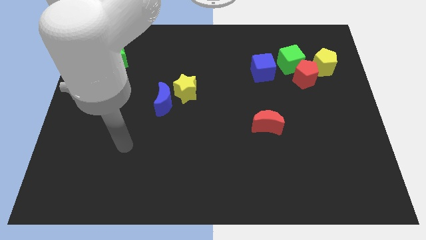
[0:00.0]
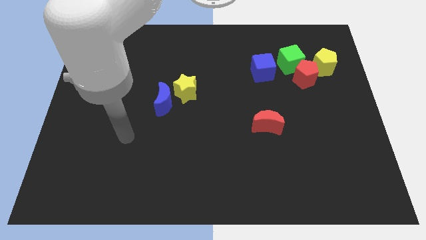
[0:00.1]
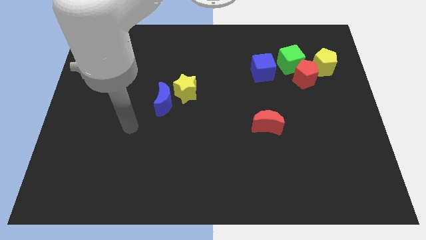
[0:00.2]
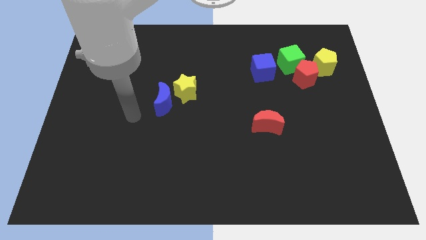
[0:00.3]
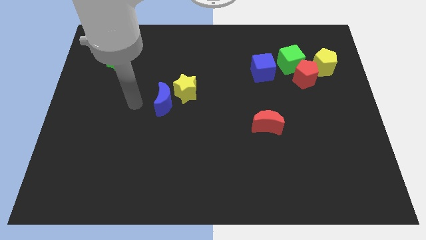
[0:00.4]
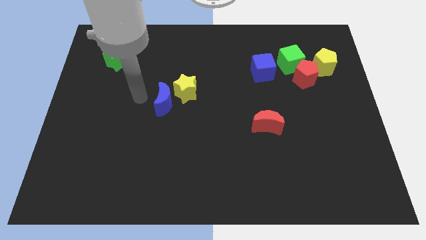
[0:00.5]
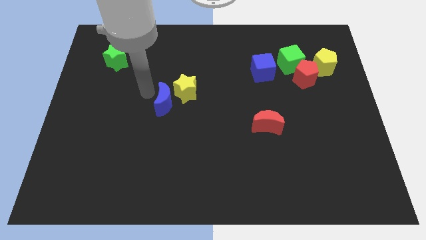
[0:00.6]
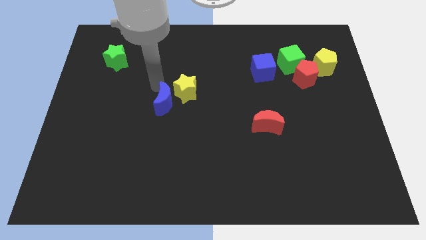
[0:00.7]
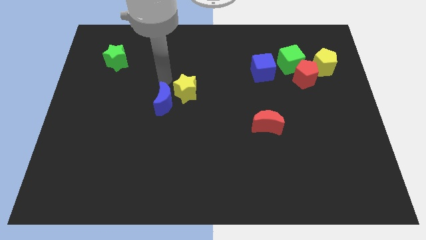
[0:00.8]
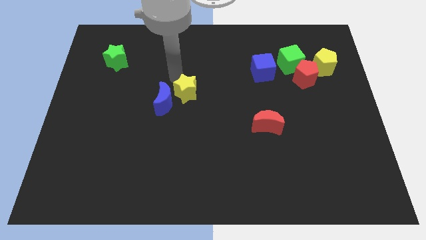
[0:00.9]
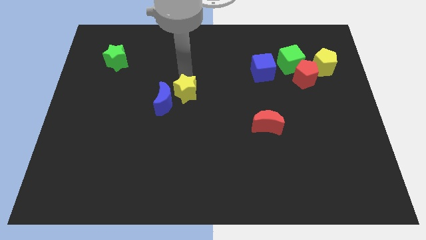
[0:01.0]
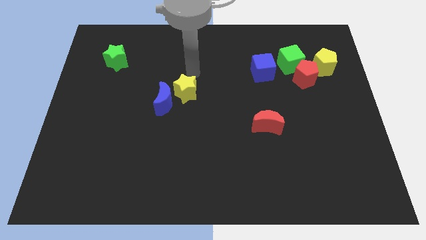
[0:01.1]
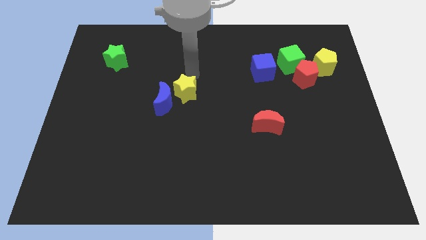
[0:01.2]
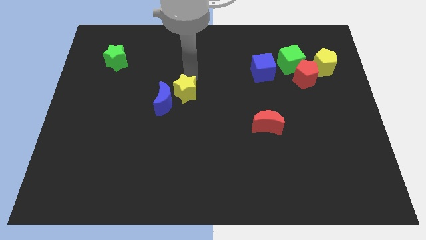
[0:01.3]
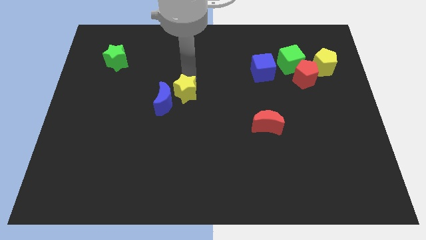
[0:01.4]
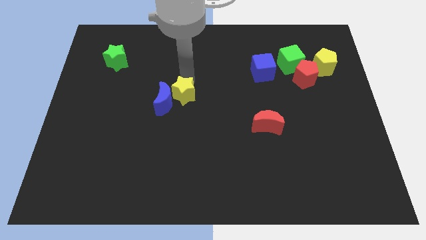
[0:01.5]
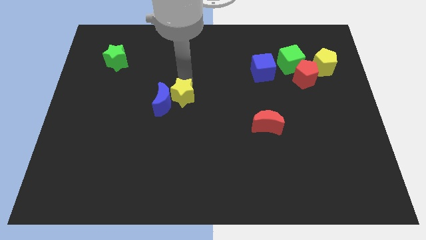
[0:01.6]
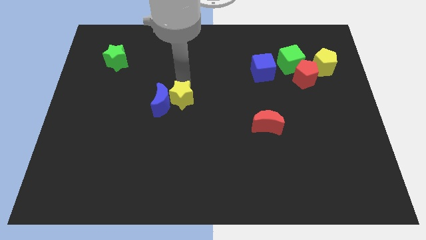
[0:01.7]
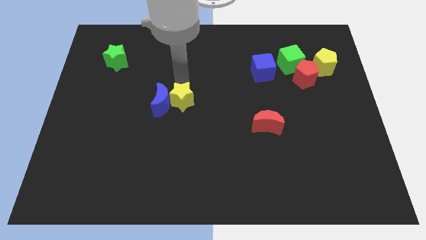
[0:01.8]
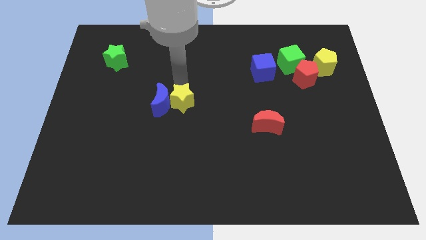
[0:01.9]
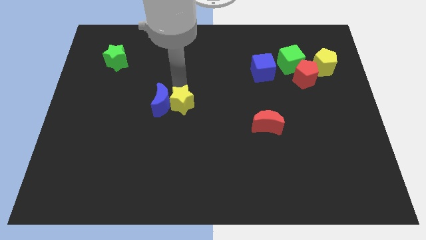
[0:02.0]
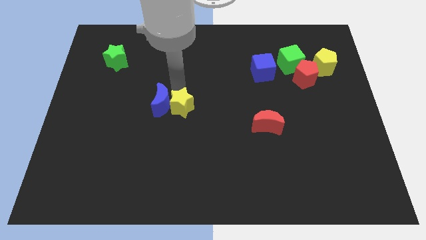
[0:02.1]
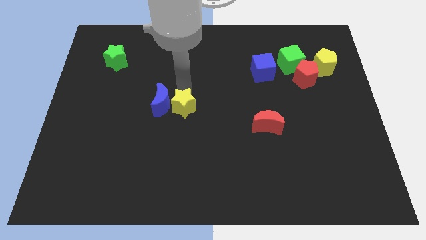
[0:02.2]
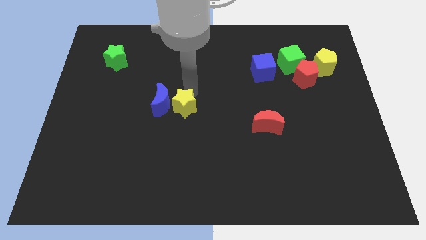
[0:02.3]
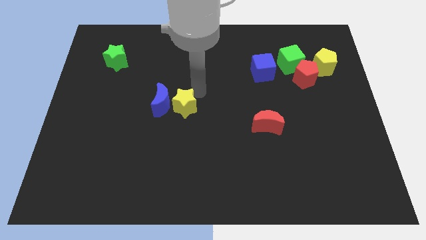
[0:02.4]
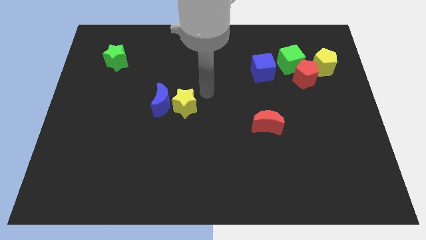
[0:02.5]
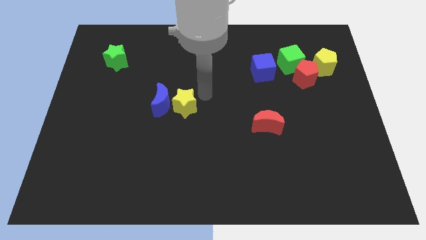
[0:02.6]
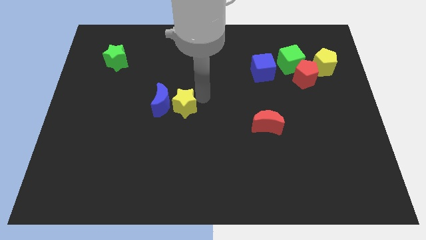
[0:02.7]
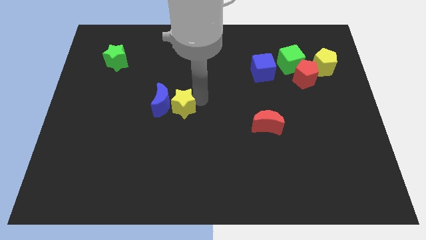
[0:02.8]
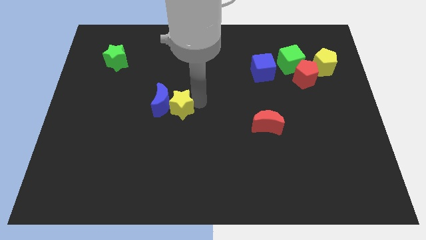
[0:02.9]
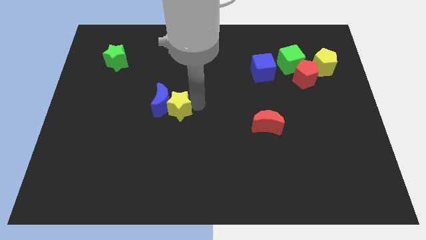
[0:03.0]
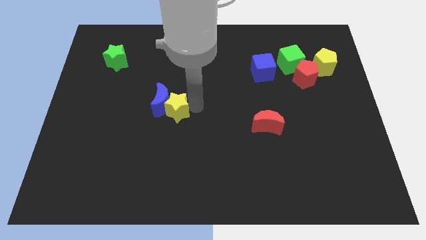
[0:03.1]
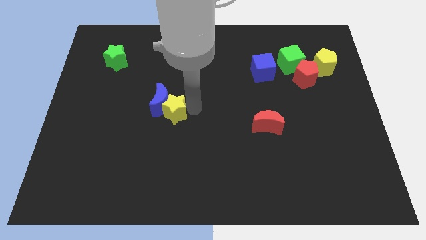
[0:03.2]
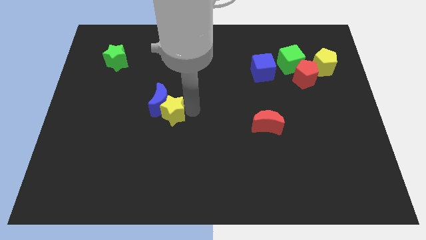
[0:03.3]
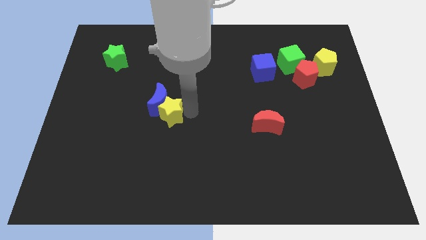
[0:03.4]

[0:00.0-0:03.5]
slightly move the yellow star down and left diagonally

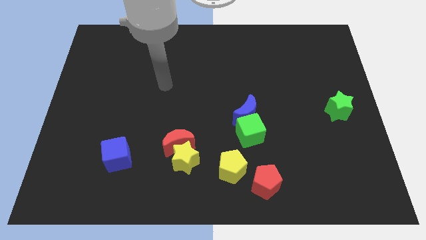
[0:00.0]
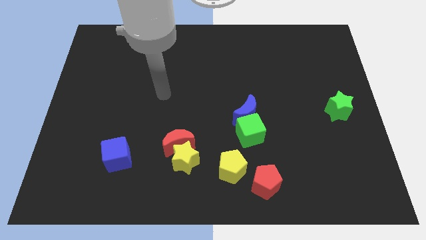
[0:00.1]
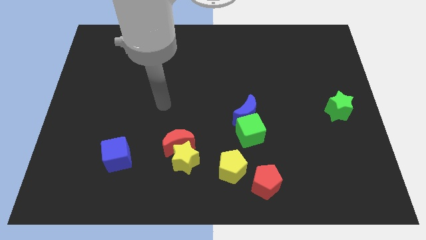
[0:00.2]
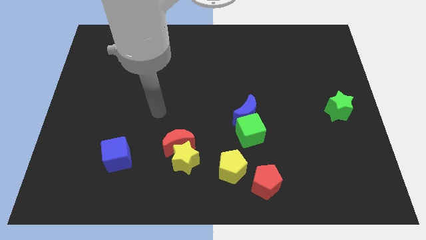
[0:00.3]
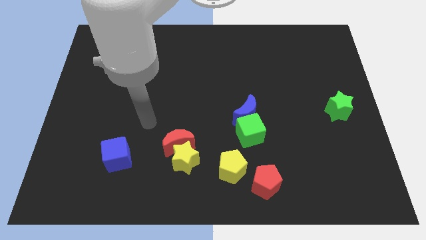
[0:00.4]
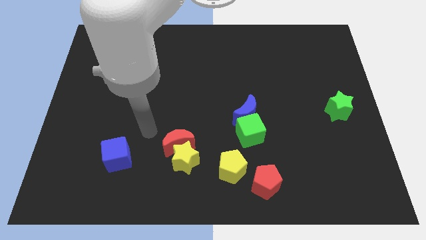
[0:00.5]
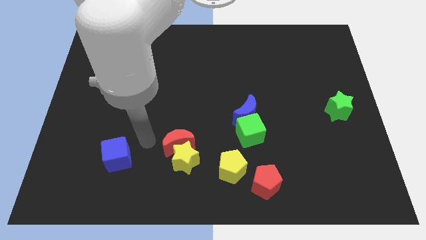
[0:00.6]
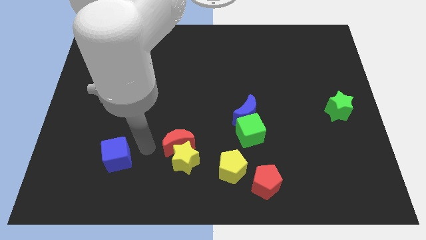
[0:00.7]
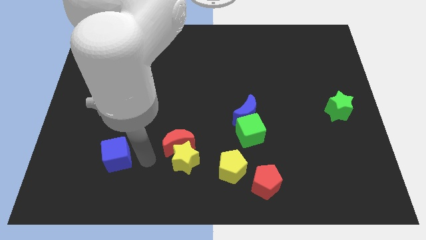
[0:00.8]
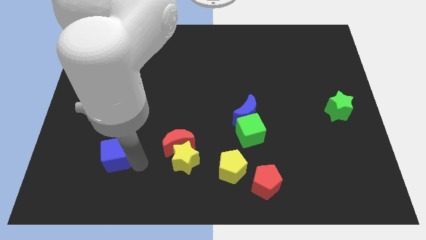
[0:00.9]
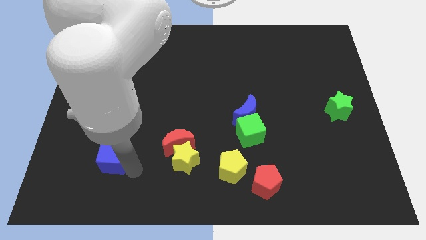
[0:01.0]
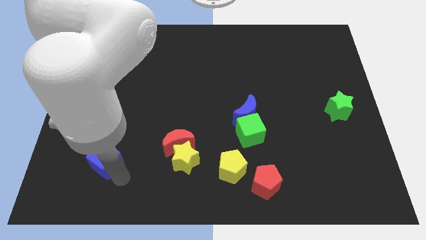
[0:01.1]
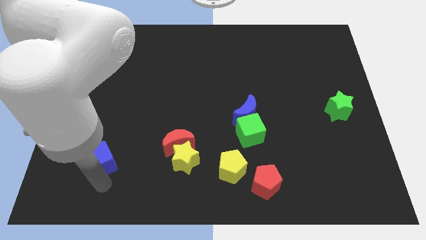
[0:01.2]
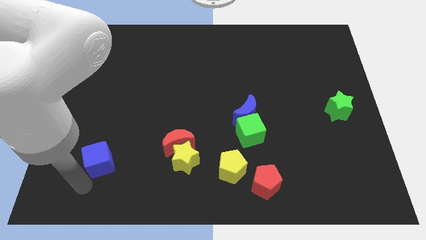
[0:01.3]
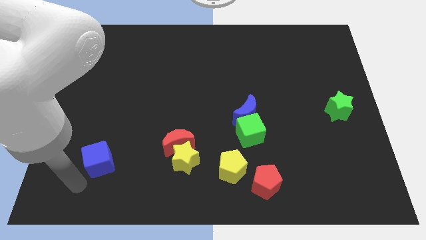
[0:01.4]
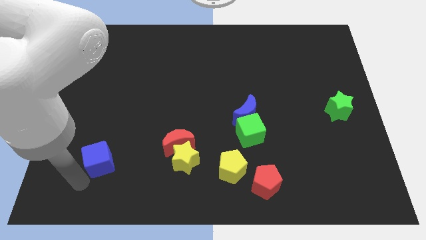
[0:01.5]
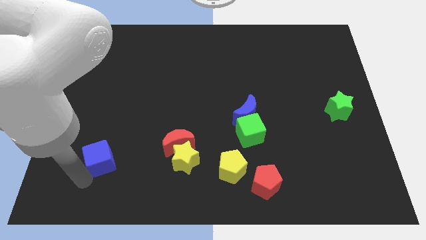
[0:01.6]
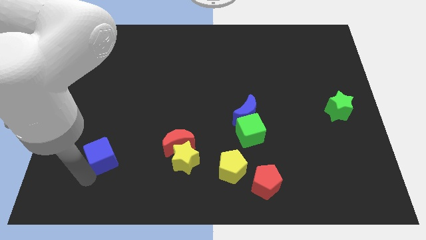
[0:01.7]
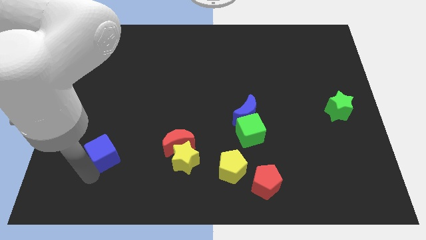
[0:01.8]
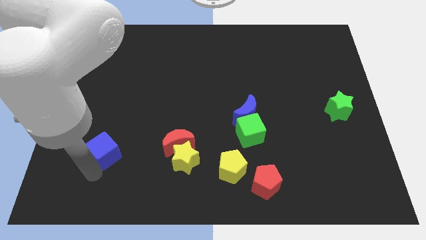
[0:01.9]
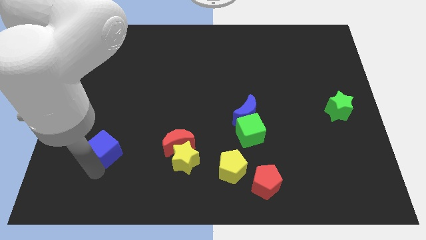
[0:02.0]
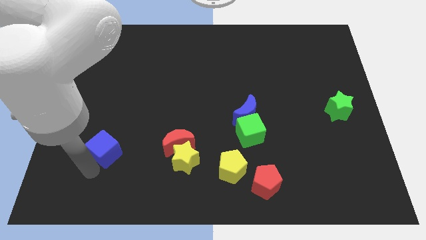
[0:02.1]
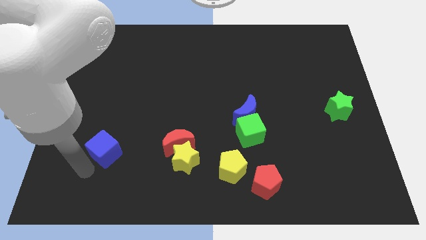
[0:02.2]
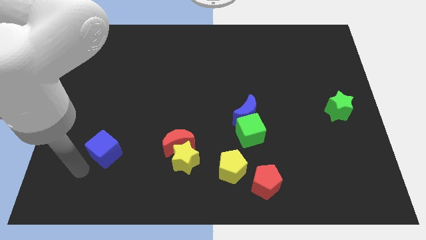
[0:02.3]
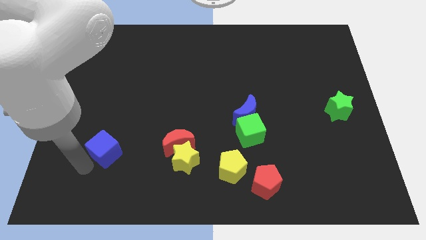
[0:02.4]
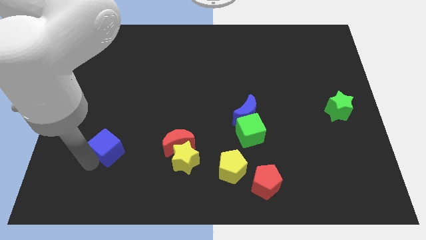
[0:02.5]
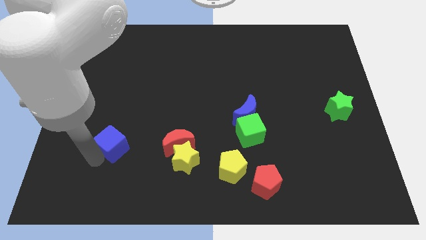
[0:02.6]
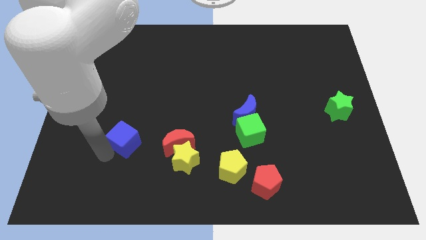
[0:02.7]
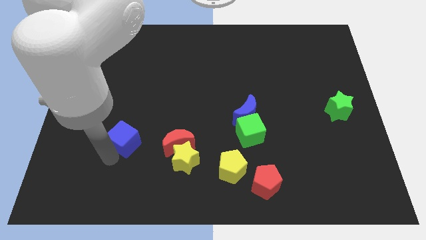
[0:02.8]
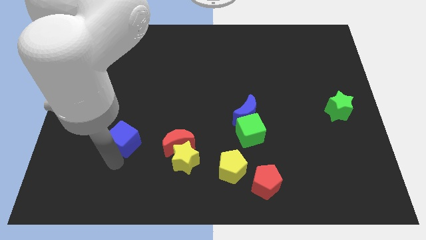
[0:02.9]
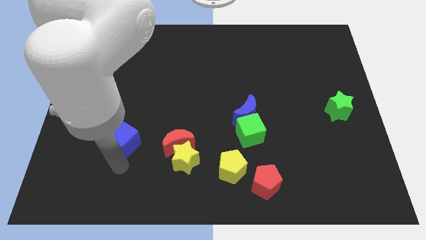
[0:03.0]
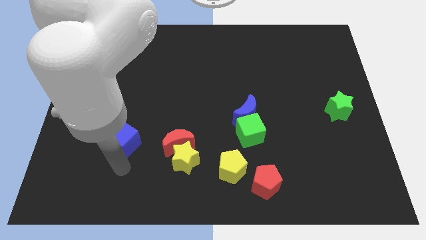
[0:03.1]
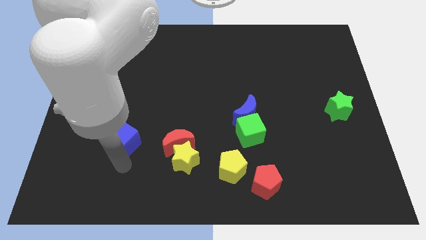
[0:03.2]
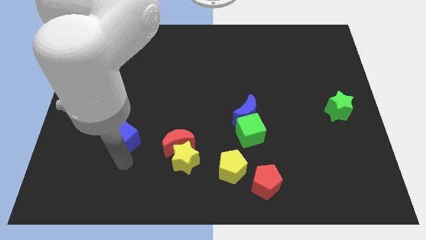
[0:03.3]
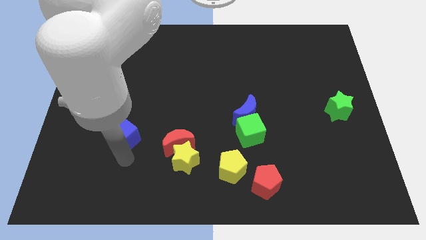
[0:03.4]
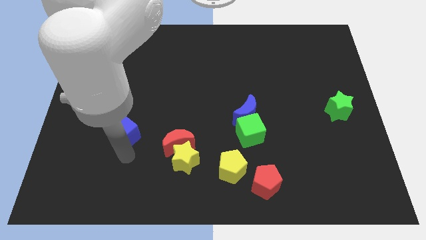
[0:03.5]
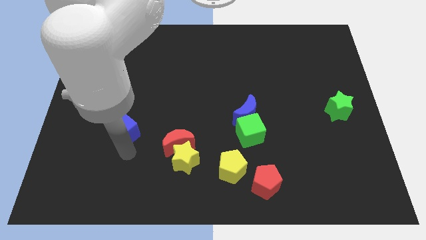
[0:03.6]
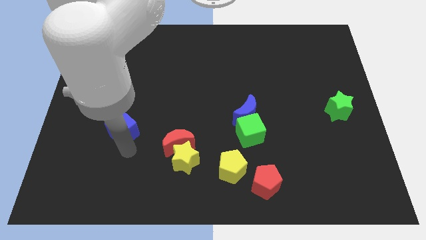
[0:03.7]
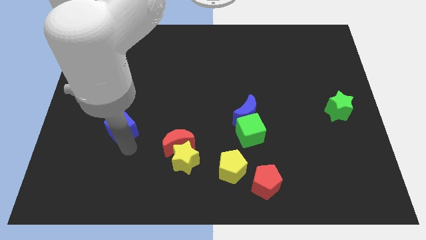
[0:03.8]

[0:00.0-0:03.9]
slide the blue cube a bit upwards

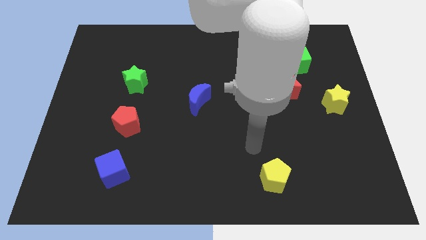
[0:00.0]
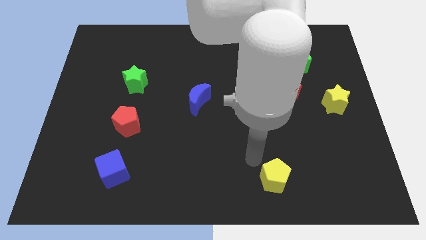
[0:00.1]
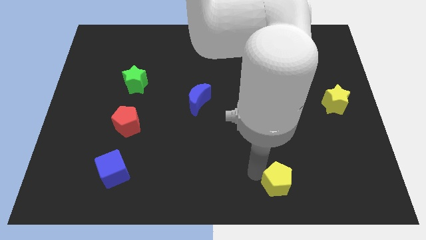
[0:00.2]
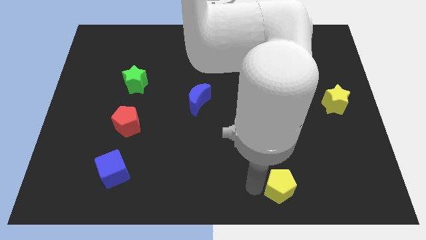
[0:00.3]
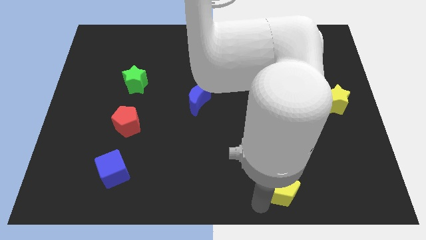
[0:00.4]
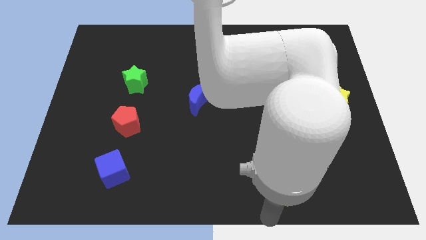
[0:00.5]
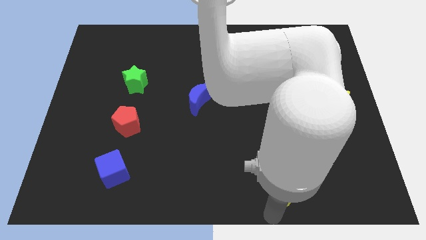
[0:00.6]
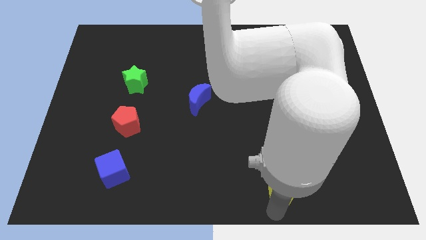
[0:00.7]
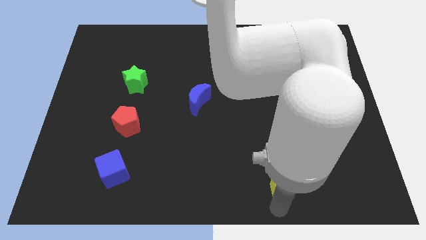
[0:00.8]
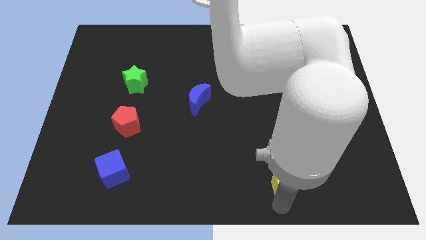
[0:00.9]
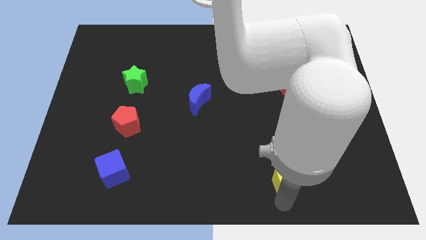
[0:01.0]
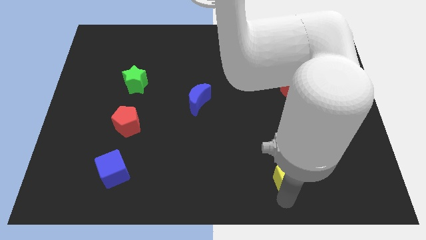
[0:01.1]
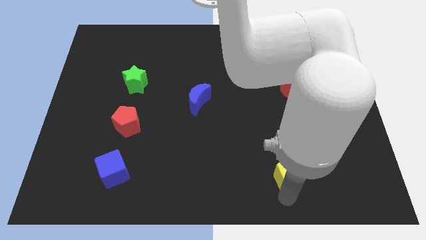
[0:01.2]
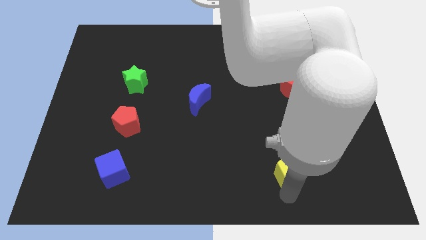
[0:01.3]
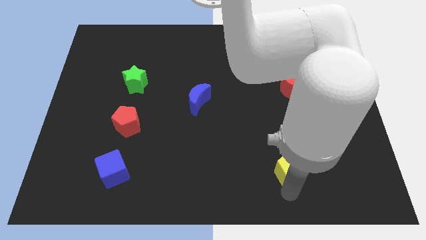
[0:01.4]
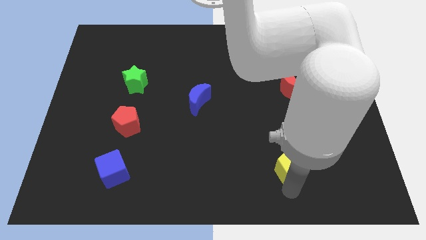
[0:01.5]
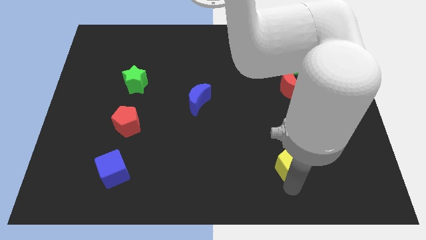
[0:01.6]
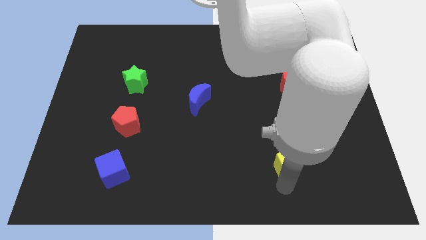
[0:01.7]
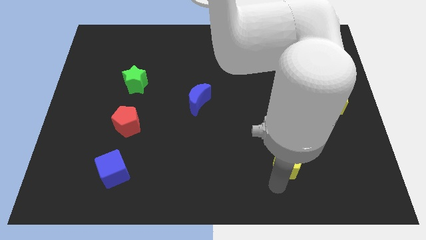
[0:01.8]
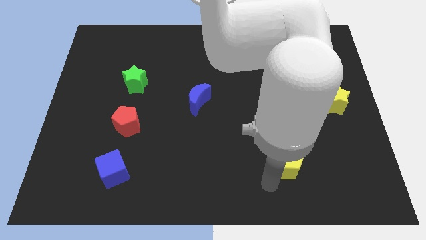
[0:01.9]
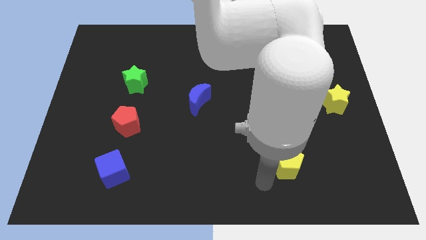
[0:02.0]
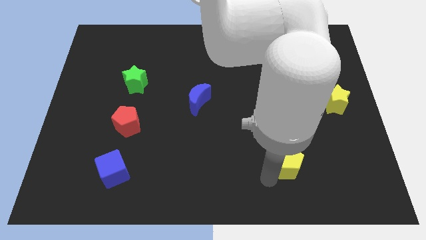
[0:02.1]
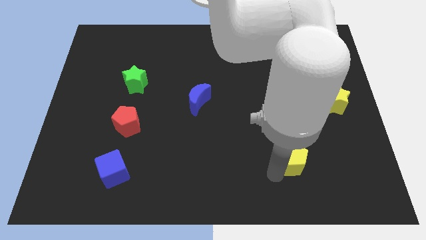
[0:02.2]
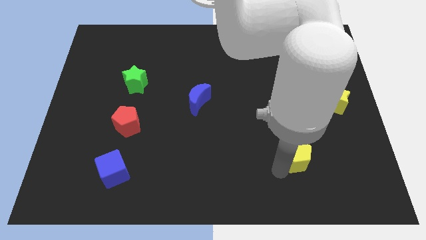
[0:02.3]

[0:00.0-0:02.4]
push the yellow pentagon upwards and then to the right a bit
